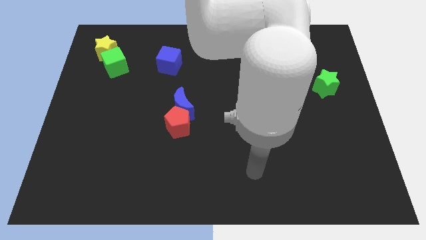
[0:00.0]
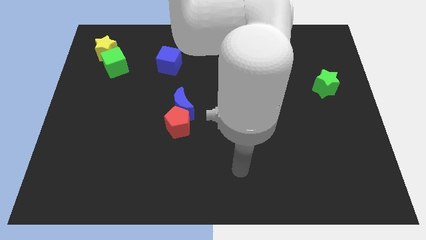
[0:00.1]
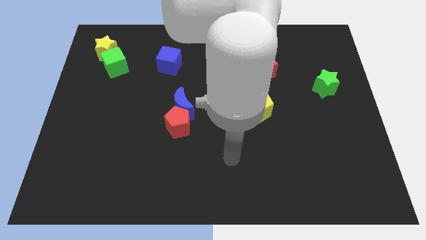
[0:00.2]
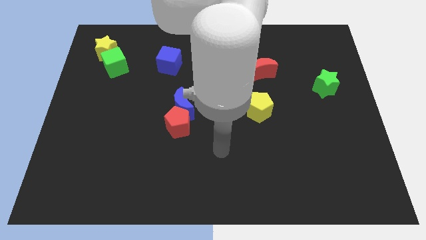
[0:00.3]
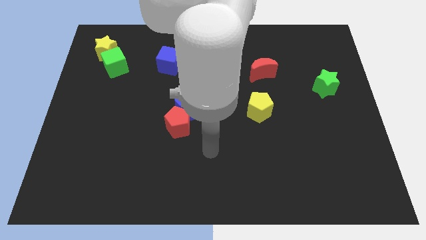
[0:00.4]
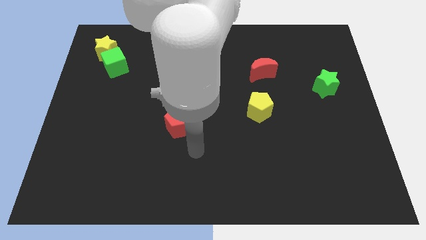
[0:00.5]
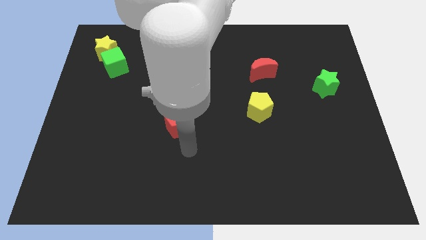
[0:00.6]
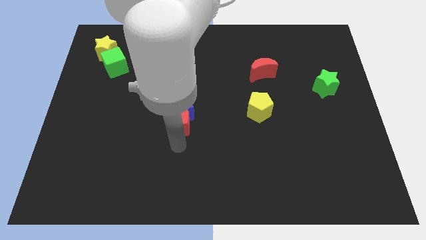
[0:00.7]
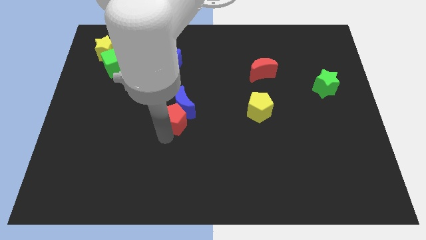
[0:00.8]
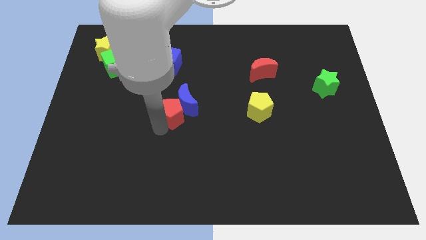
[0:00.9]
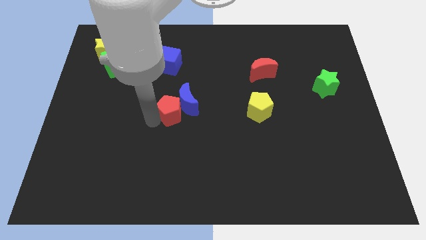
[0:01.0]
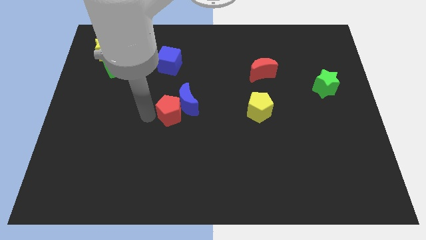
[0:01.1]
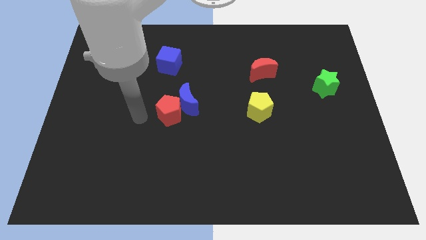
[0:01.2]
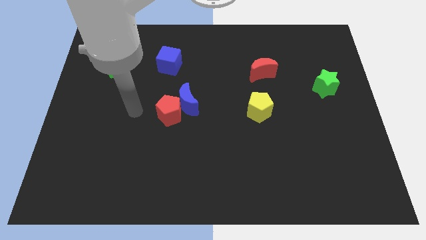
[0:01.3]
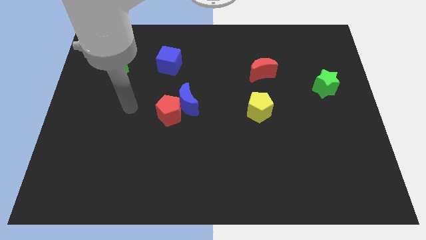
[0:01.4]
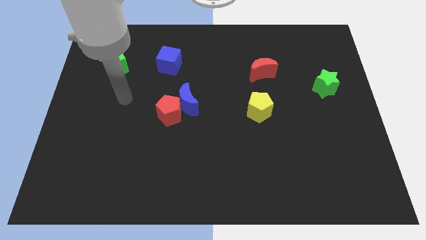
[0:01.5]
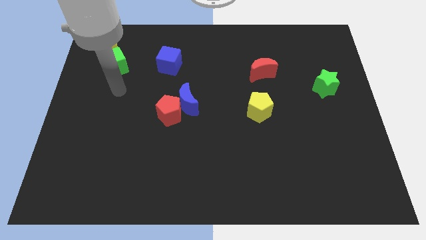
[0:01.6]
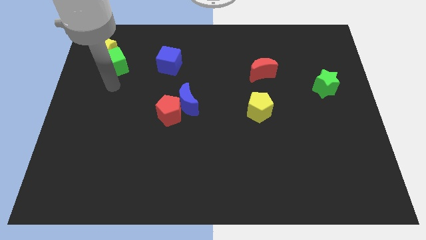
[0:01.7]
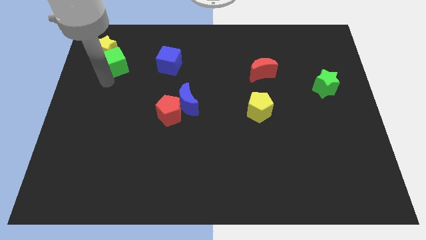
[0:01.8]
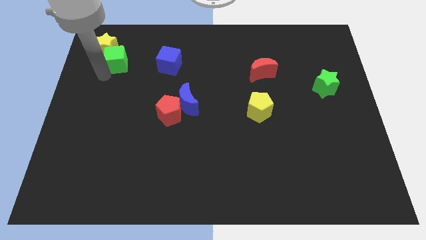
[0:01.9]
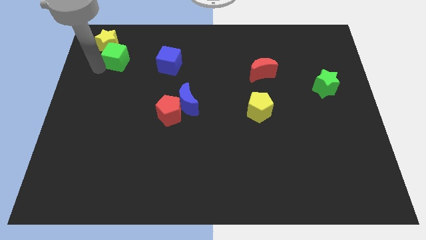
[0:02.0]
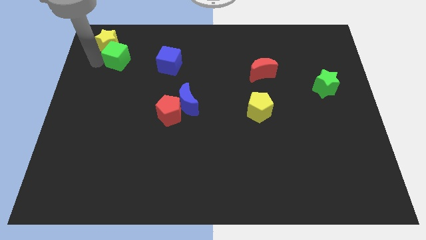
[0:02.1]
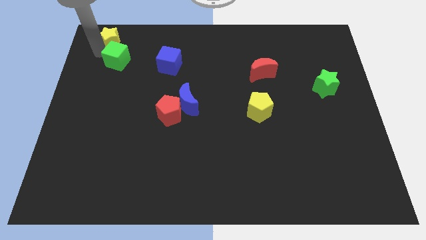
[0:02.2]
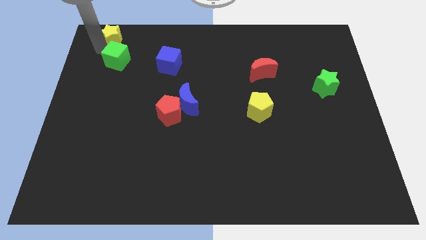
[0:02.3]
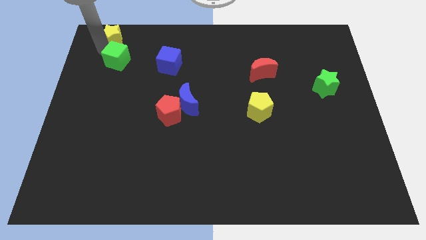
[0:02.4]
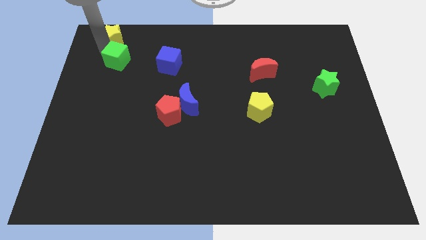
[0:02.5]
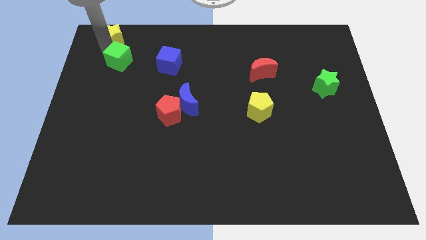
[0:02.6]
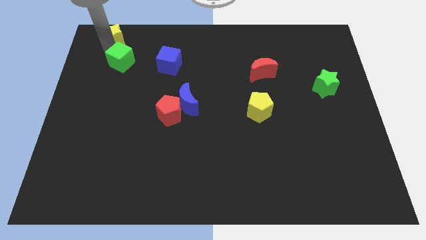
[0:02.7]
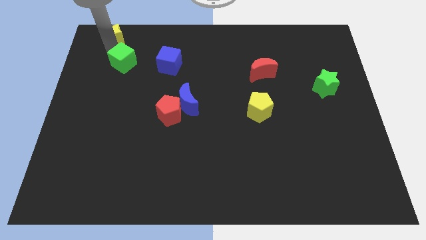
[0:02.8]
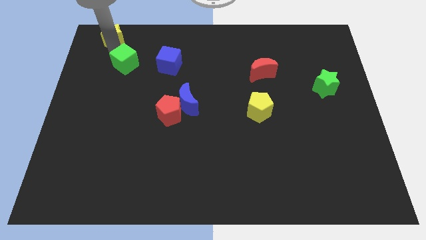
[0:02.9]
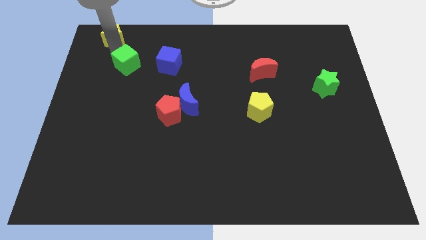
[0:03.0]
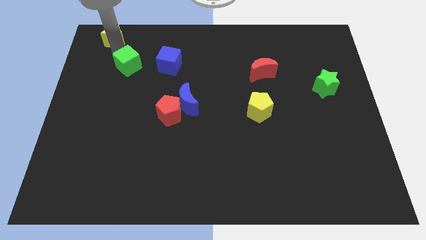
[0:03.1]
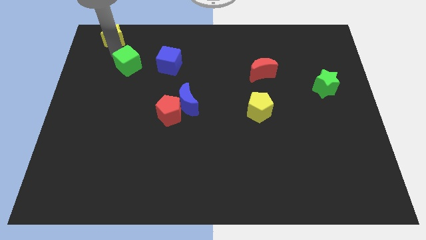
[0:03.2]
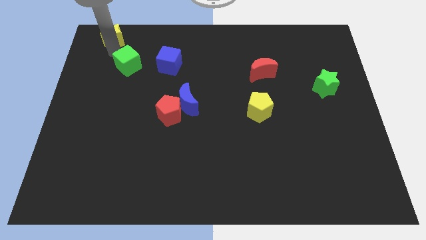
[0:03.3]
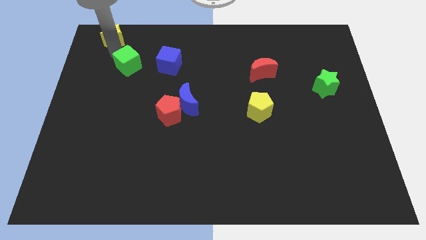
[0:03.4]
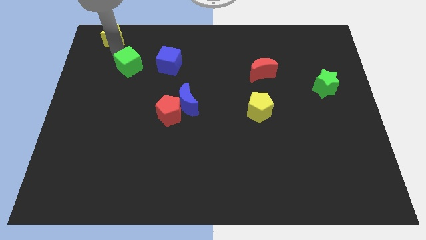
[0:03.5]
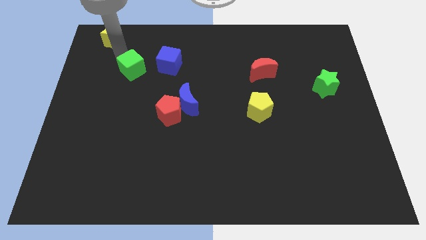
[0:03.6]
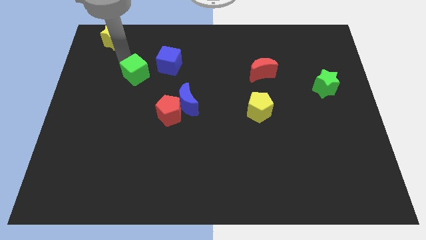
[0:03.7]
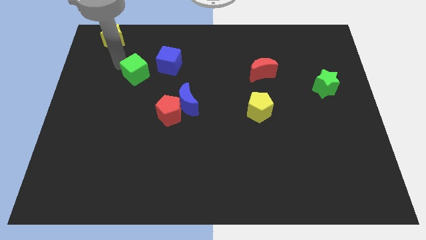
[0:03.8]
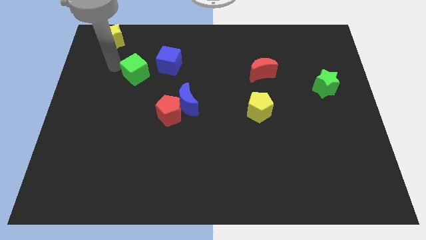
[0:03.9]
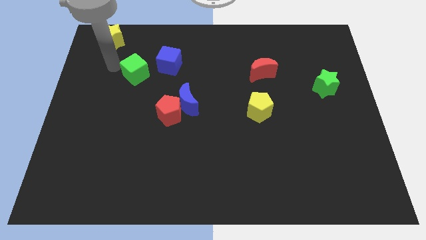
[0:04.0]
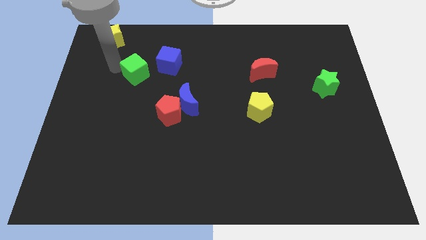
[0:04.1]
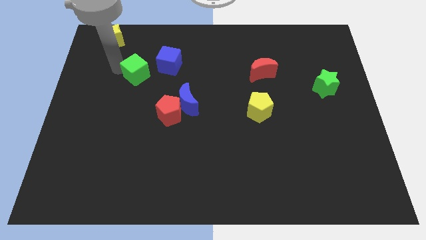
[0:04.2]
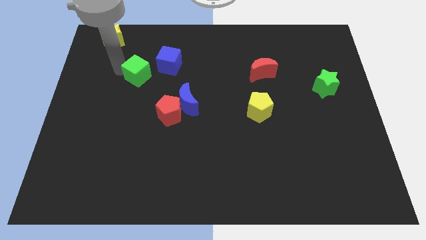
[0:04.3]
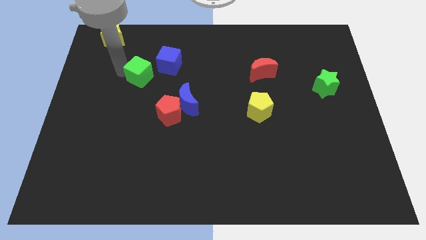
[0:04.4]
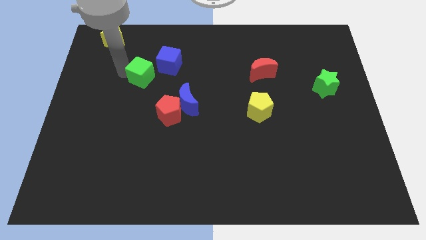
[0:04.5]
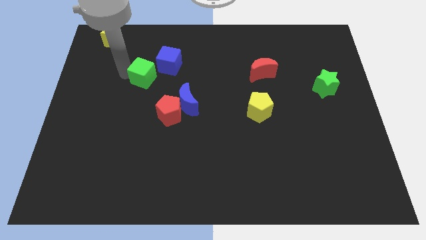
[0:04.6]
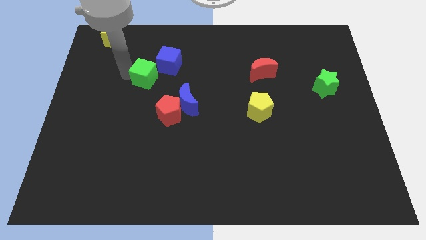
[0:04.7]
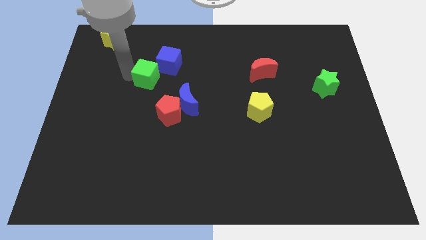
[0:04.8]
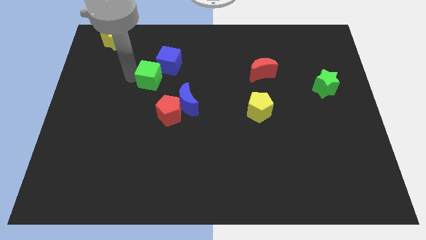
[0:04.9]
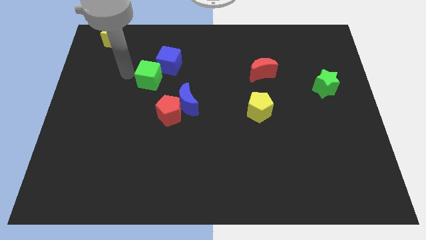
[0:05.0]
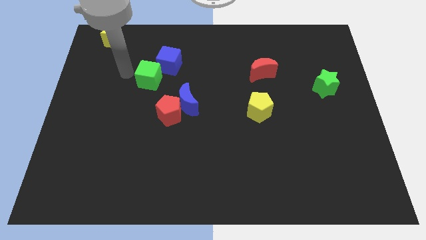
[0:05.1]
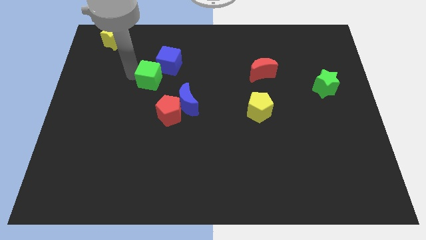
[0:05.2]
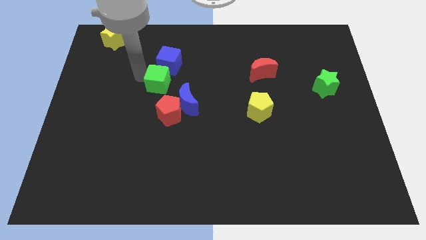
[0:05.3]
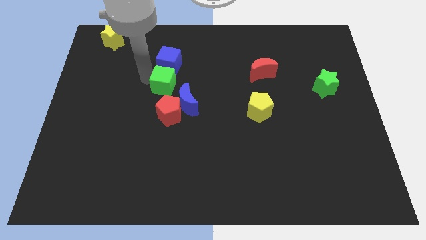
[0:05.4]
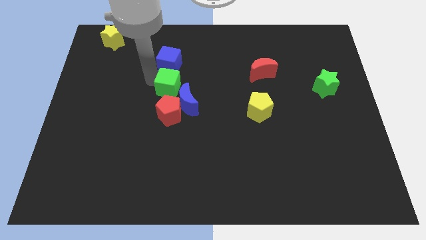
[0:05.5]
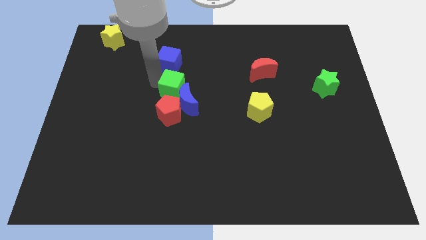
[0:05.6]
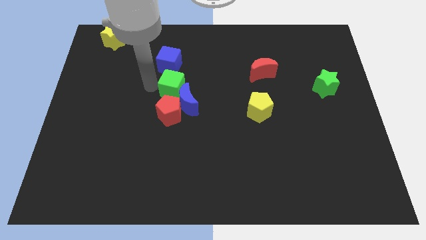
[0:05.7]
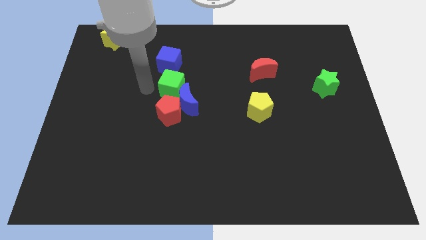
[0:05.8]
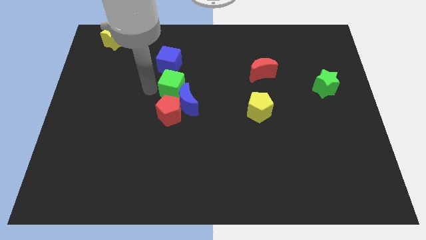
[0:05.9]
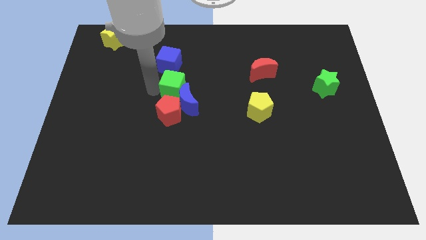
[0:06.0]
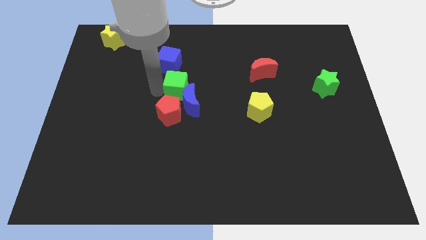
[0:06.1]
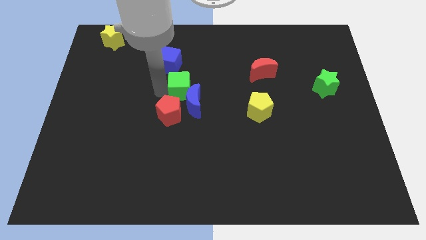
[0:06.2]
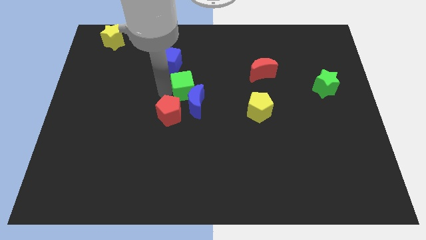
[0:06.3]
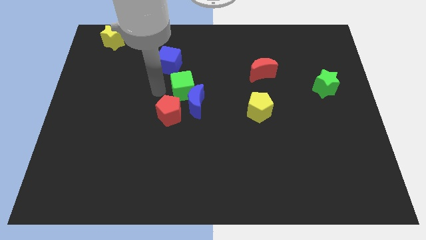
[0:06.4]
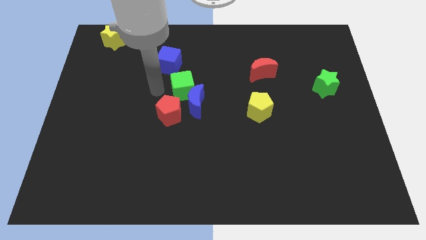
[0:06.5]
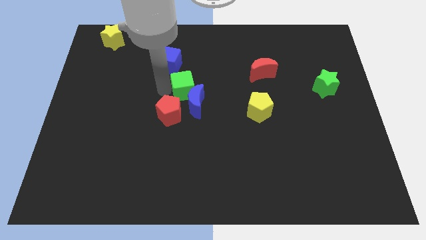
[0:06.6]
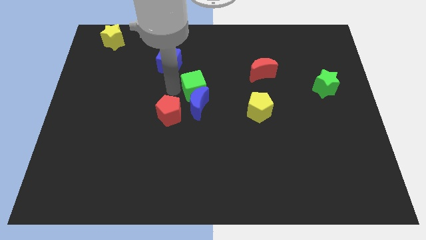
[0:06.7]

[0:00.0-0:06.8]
push the green cube to the top right side of the blue moon

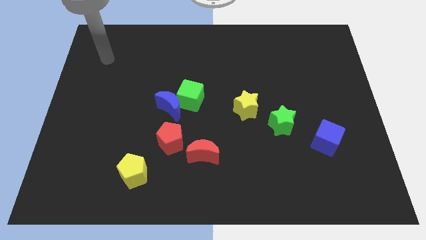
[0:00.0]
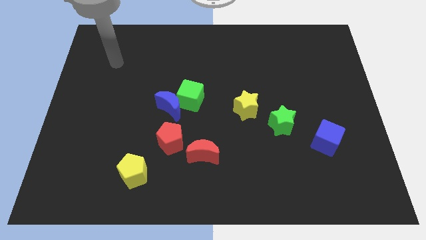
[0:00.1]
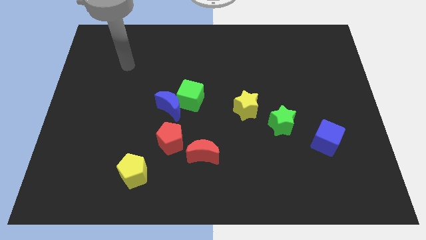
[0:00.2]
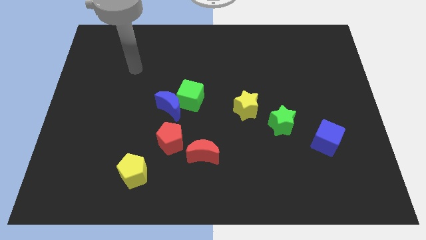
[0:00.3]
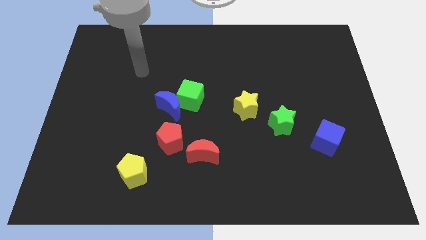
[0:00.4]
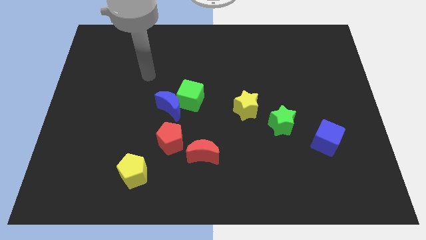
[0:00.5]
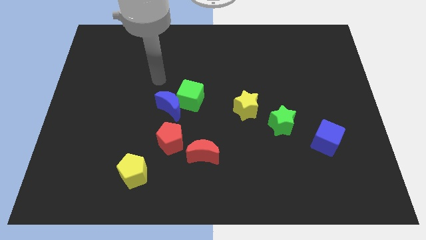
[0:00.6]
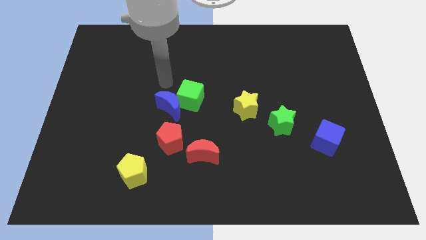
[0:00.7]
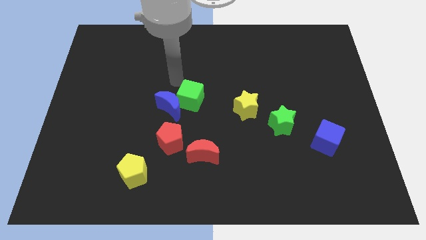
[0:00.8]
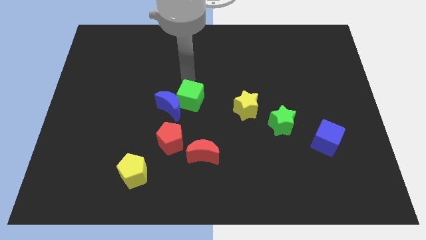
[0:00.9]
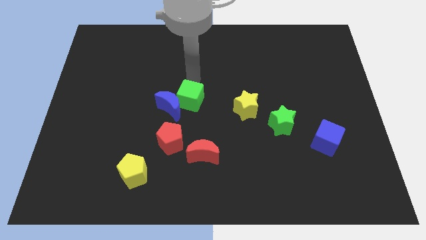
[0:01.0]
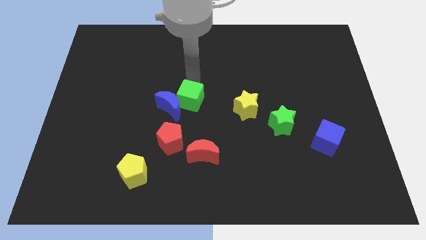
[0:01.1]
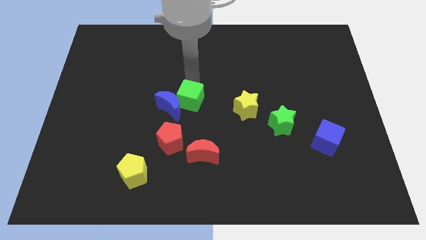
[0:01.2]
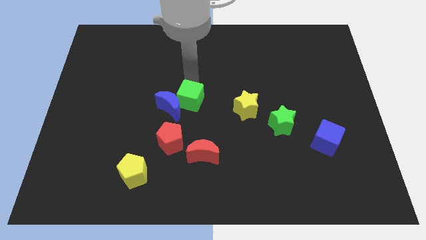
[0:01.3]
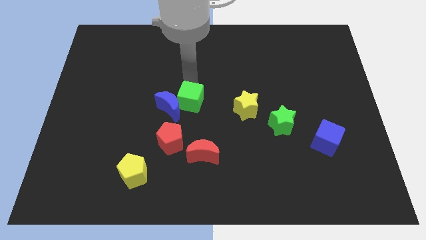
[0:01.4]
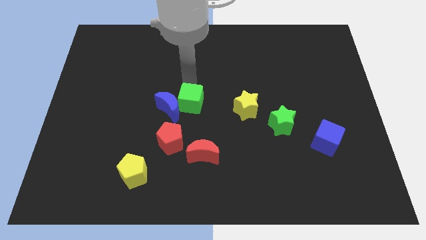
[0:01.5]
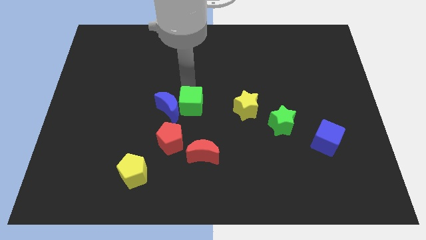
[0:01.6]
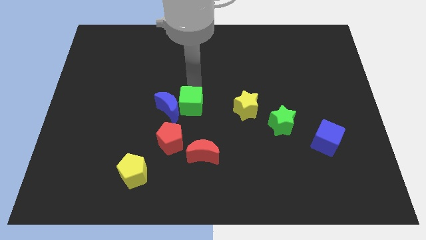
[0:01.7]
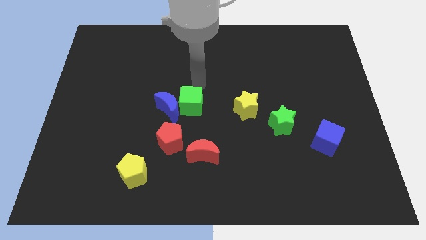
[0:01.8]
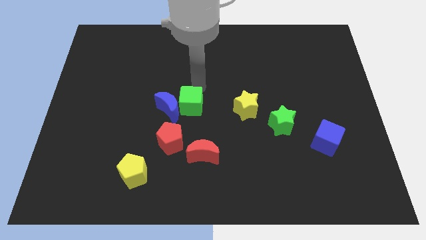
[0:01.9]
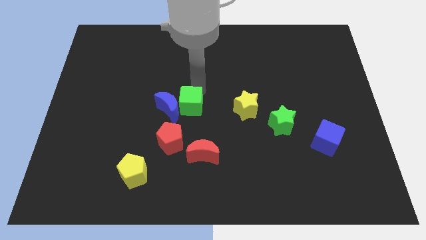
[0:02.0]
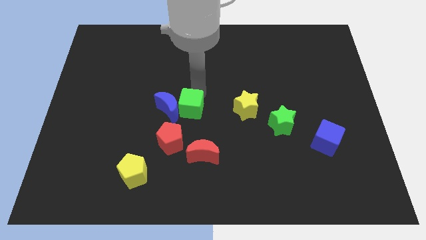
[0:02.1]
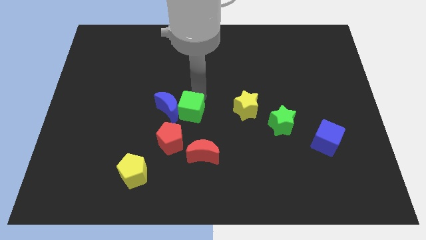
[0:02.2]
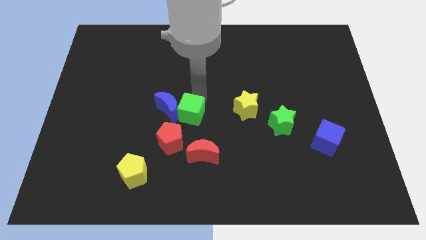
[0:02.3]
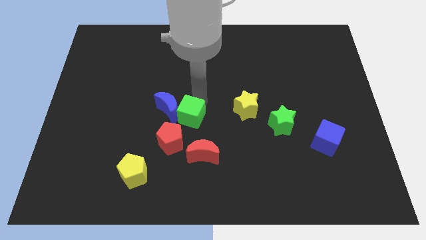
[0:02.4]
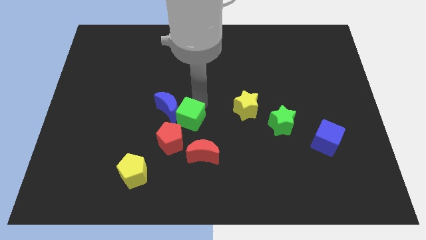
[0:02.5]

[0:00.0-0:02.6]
move the green cube to the top left of the red moon
